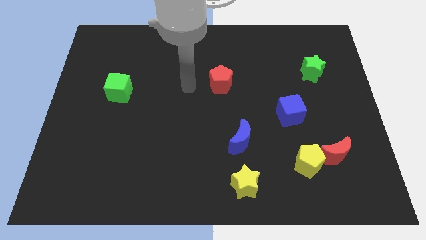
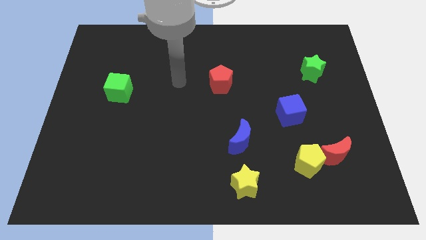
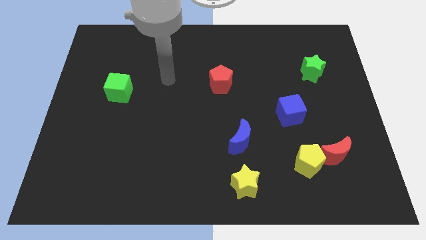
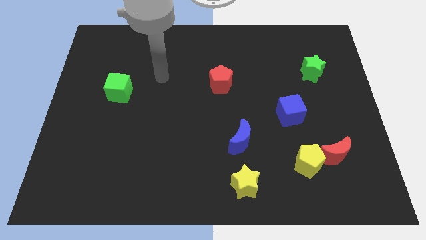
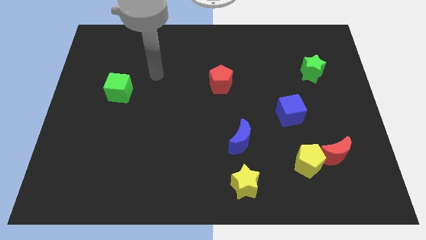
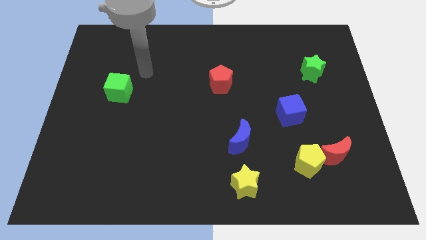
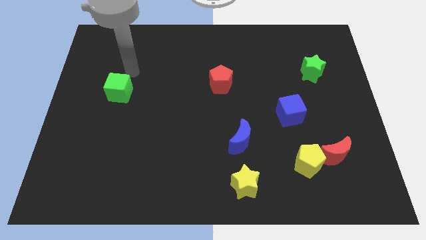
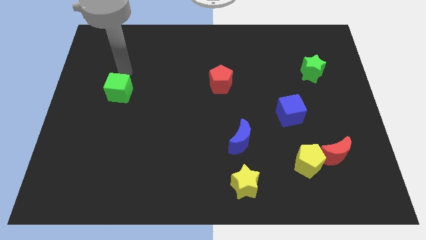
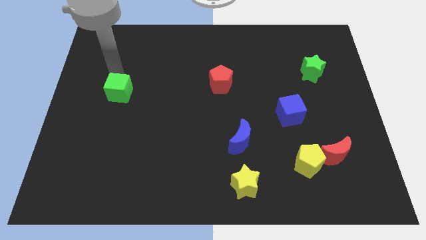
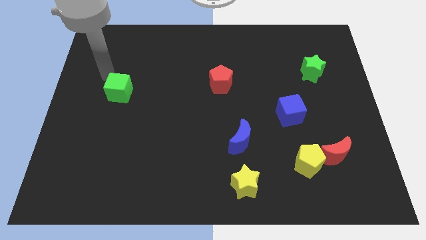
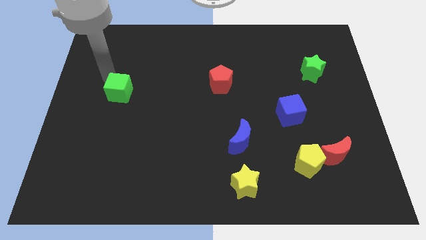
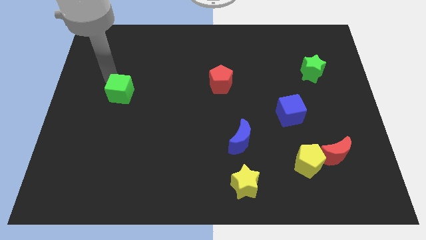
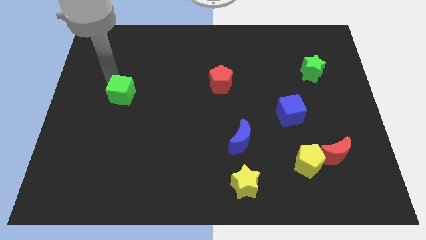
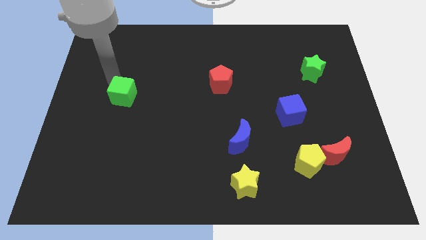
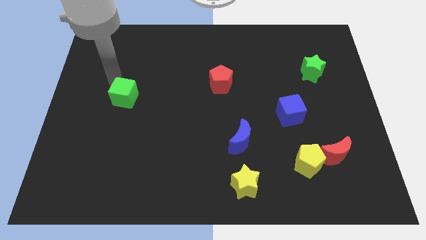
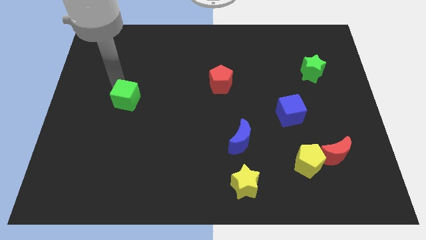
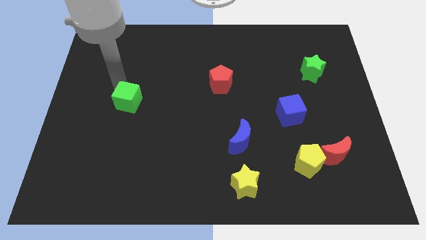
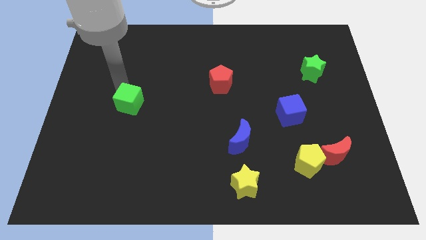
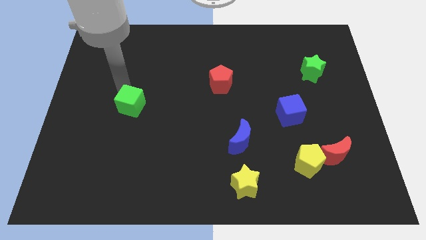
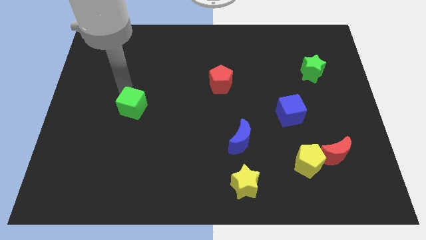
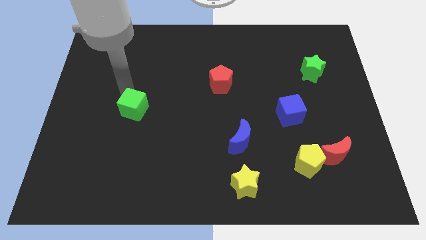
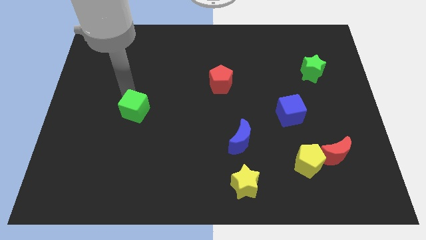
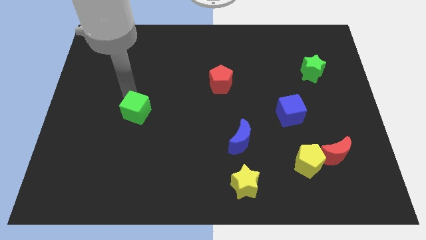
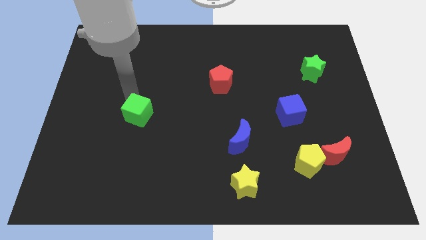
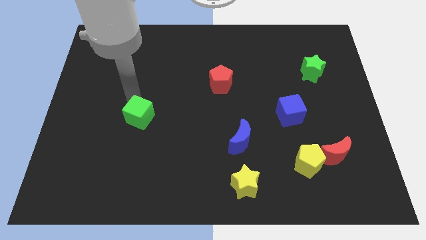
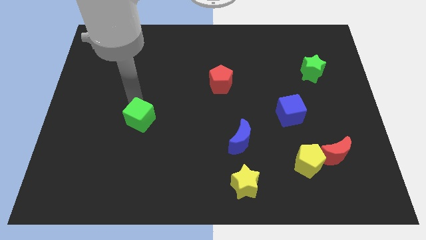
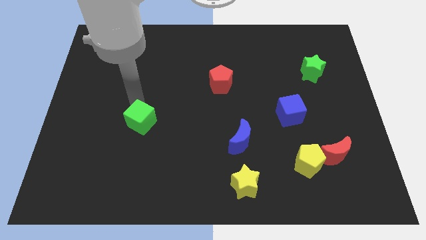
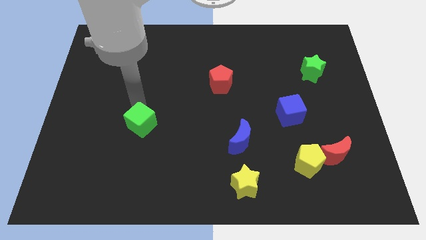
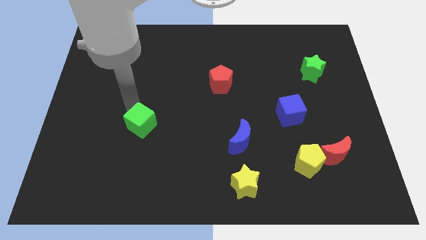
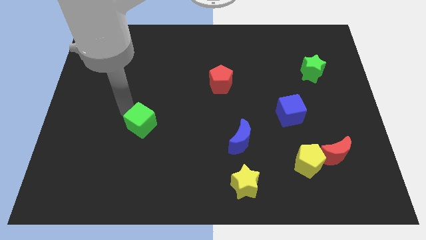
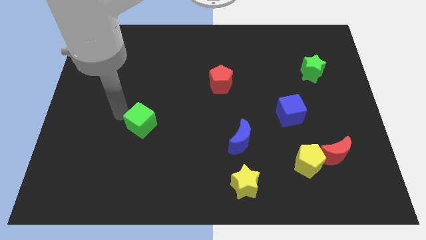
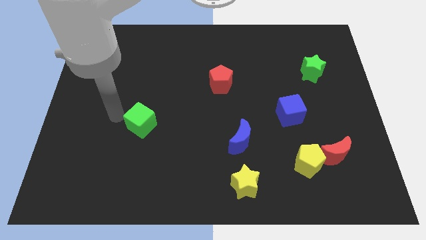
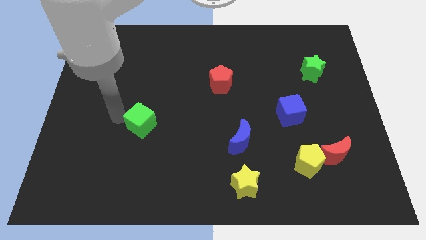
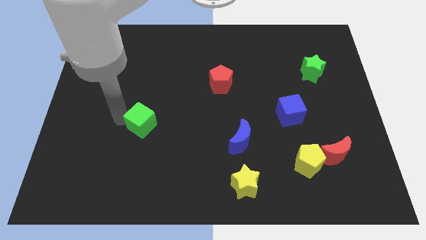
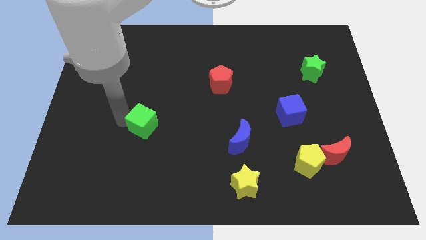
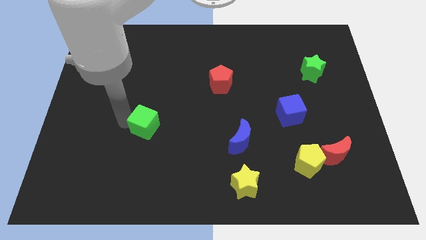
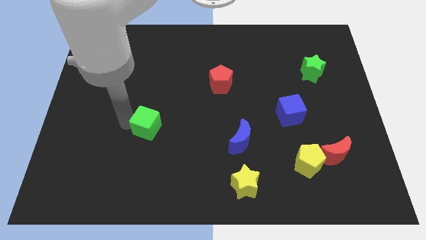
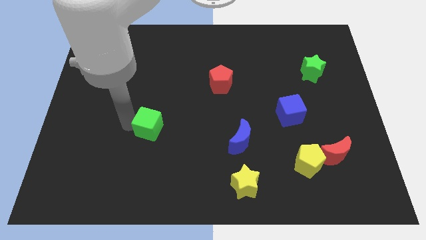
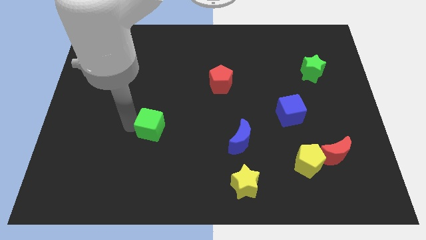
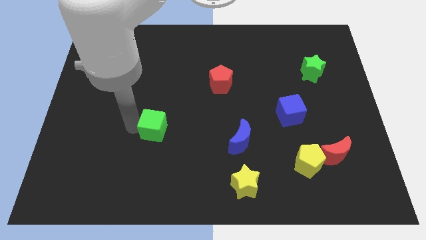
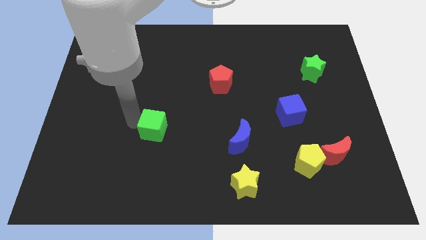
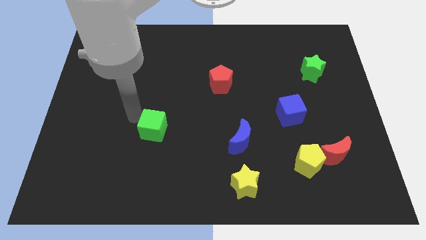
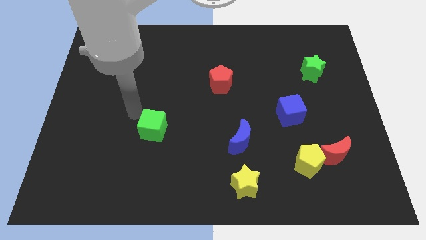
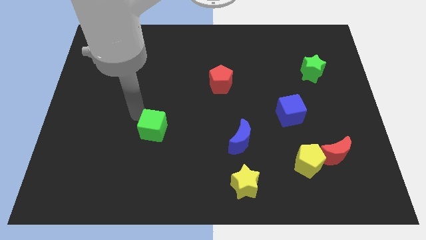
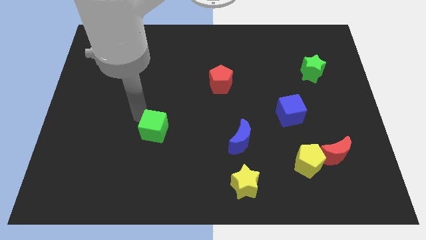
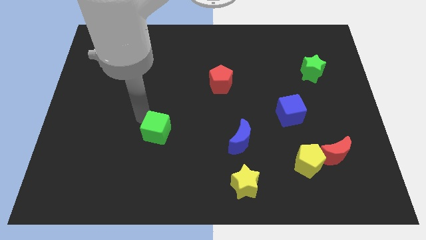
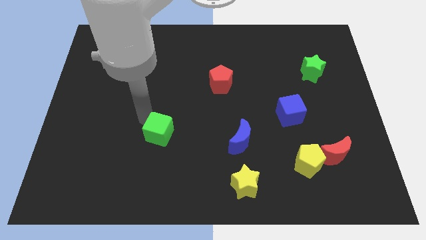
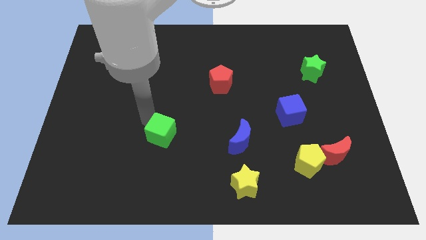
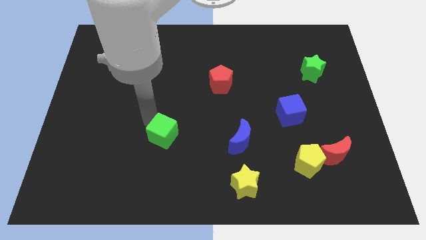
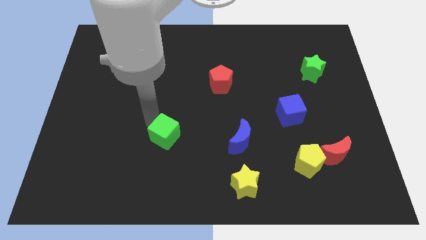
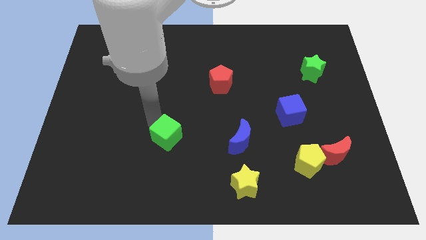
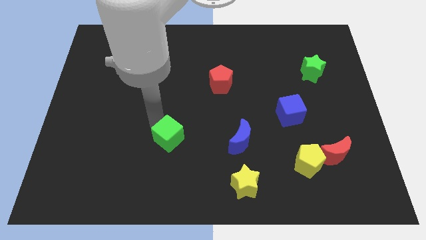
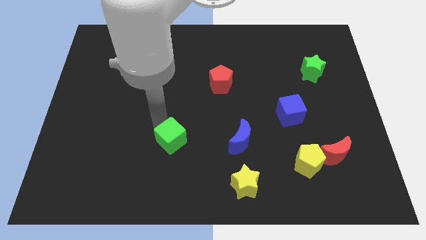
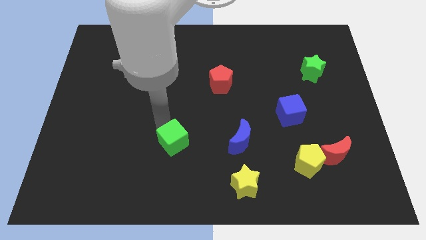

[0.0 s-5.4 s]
slide the green cube downwards and then right

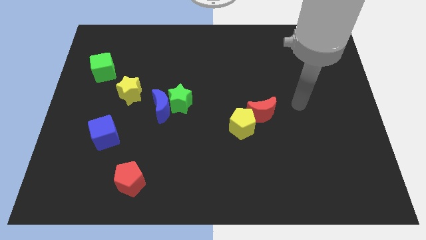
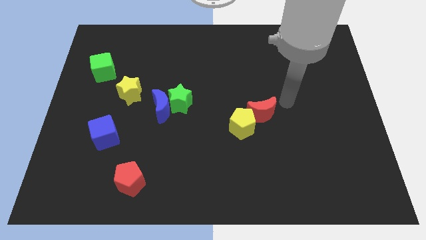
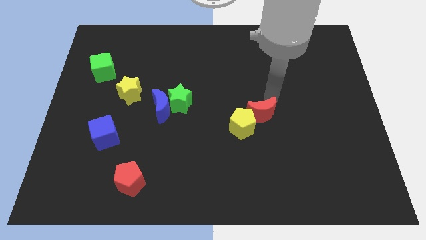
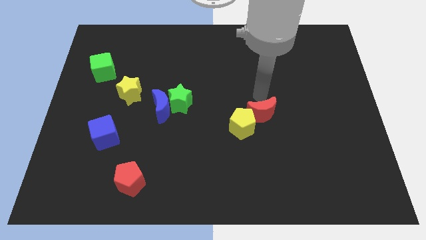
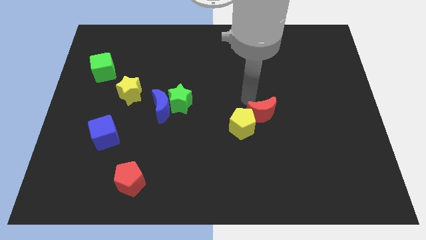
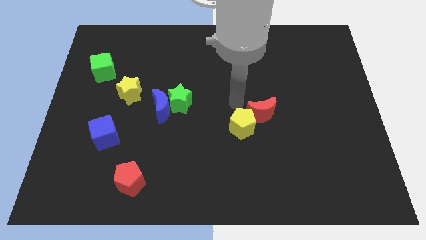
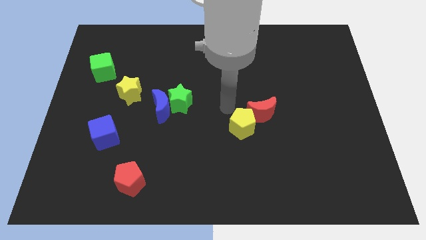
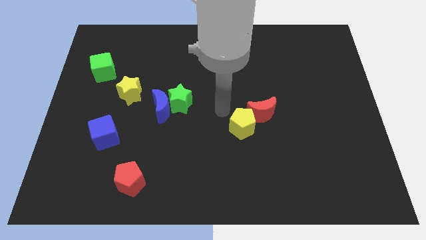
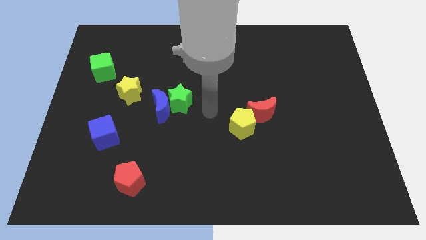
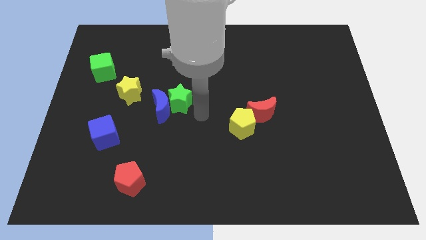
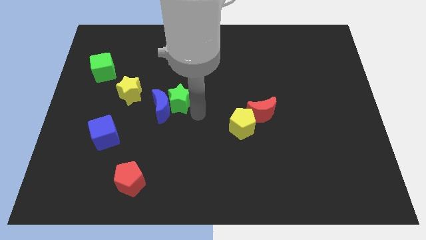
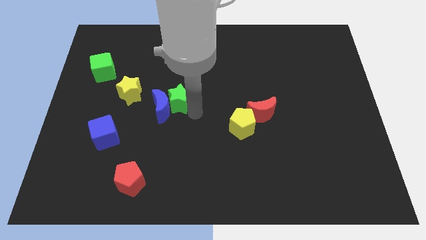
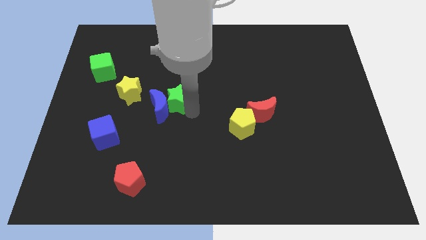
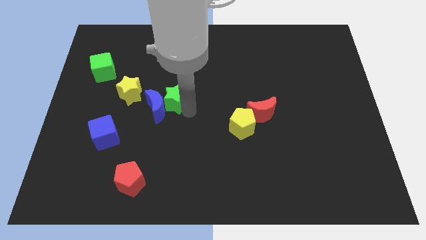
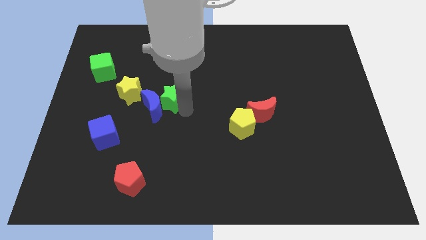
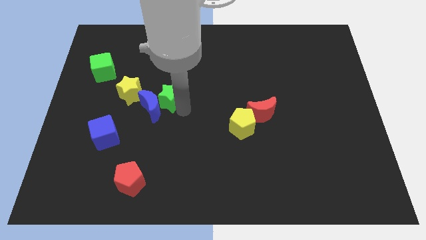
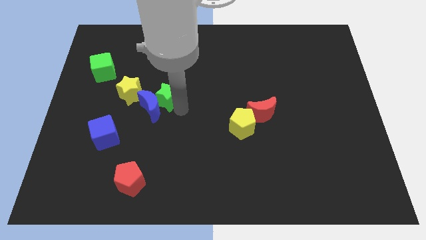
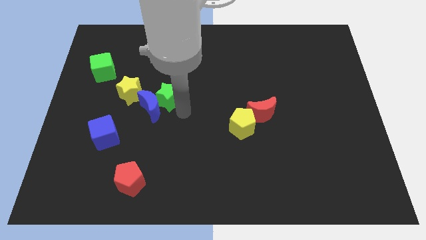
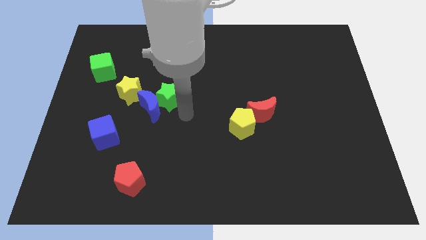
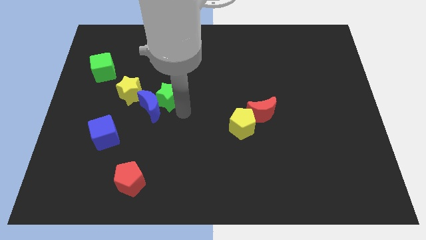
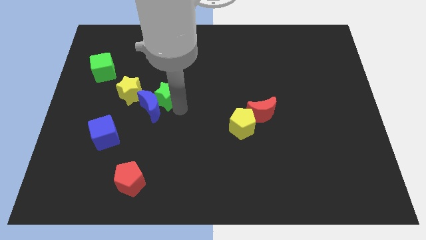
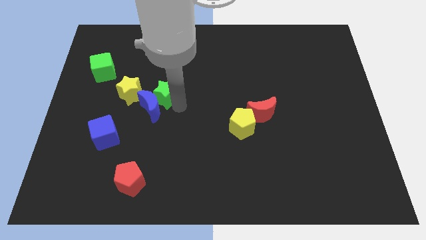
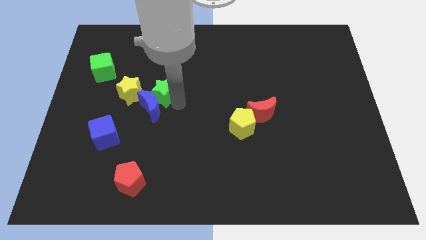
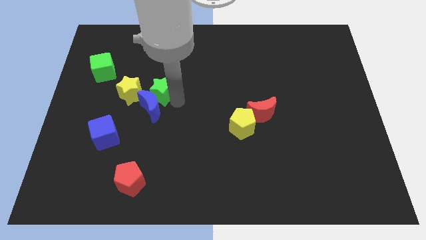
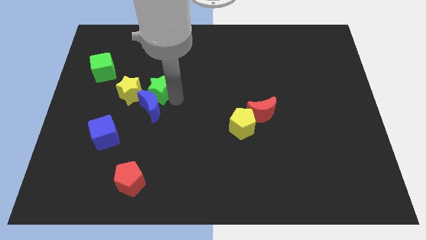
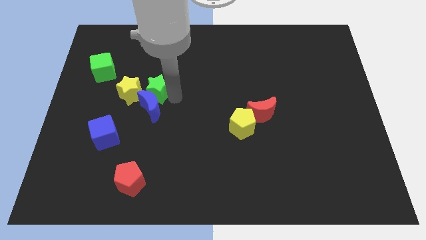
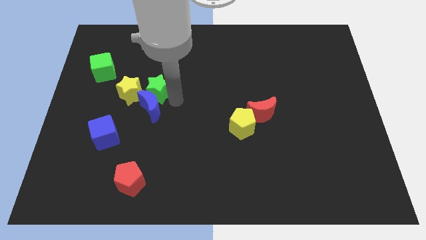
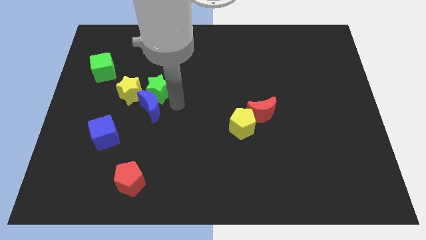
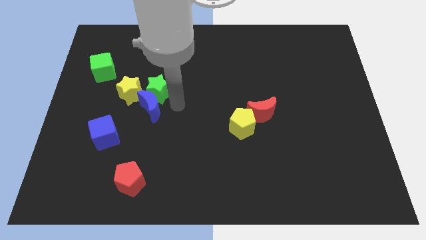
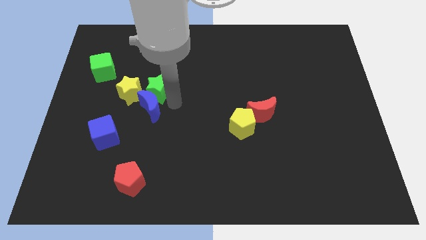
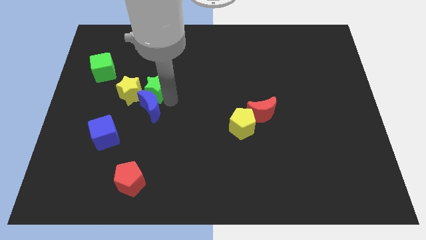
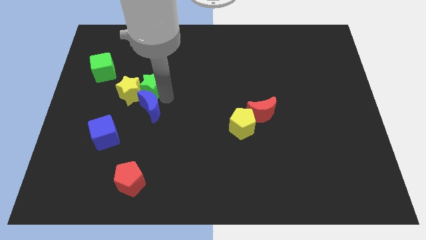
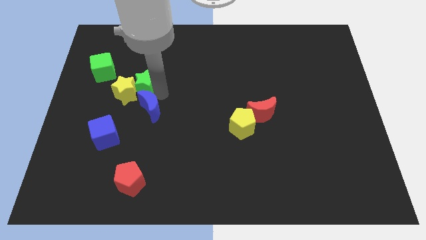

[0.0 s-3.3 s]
move the green star a bit left
